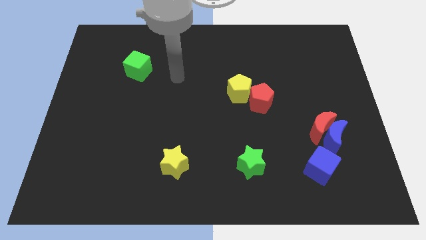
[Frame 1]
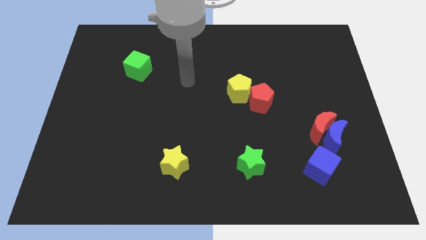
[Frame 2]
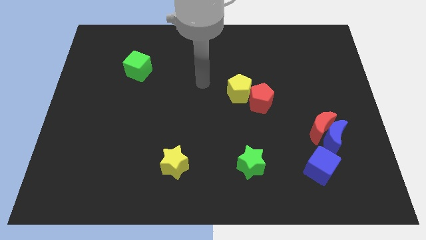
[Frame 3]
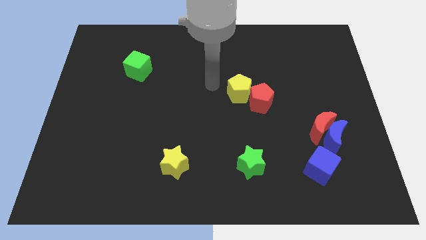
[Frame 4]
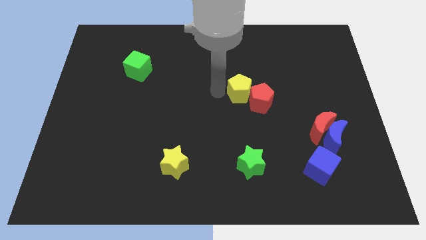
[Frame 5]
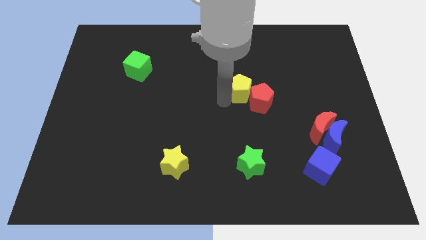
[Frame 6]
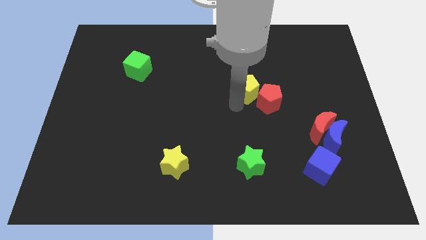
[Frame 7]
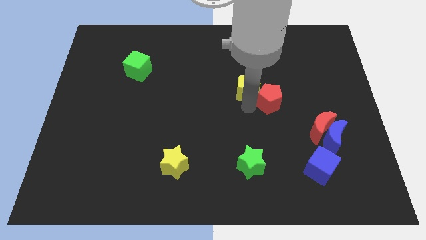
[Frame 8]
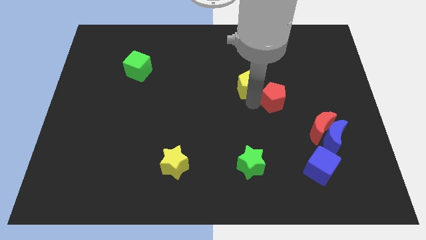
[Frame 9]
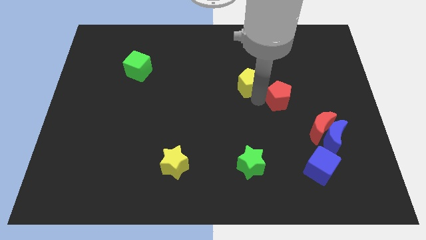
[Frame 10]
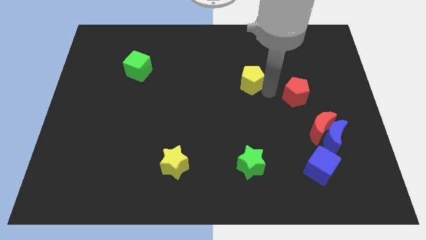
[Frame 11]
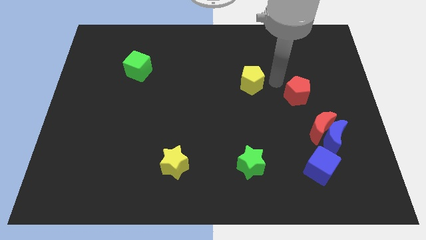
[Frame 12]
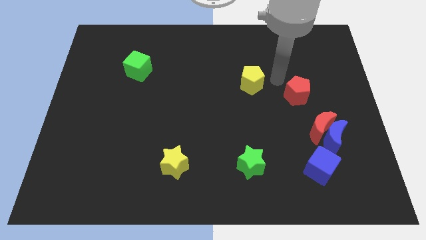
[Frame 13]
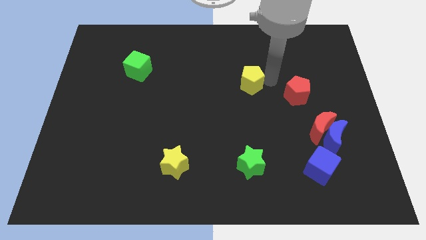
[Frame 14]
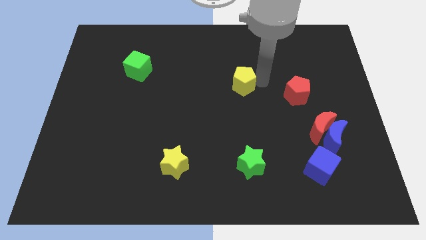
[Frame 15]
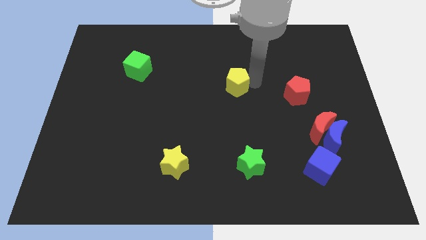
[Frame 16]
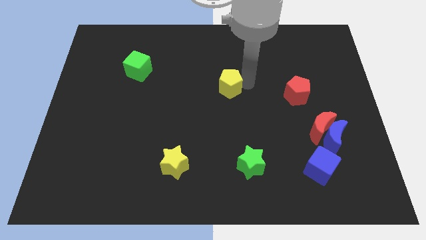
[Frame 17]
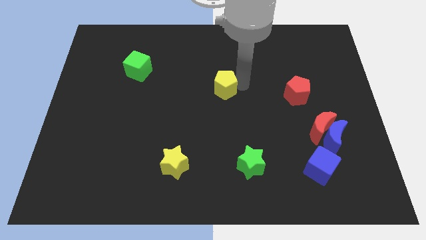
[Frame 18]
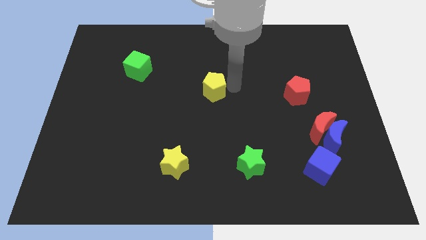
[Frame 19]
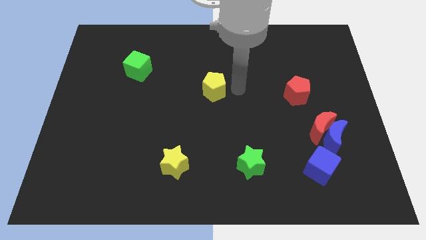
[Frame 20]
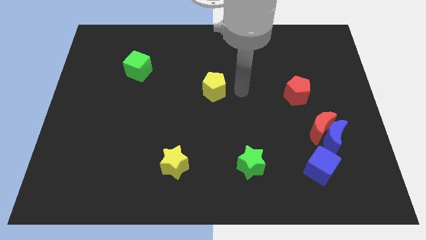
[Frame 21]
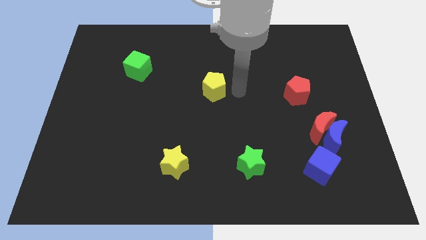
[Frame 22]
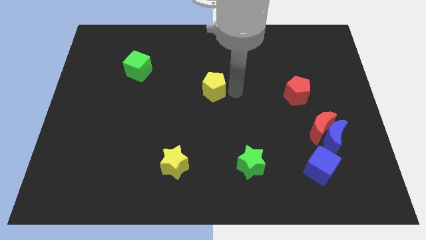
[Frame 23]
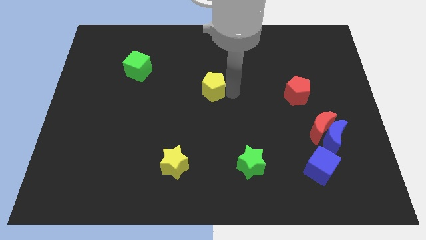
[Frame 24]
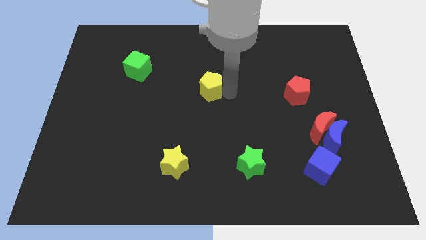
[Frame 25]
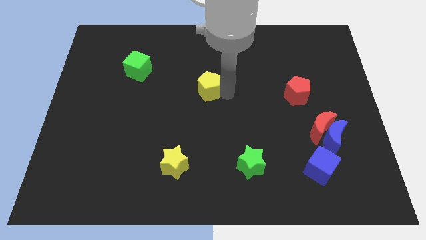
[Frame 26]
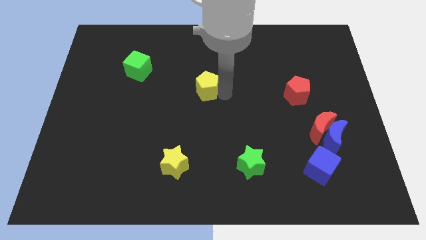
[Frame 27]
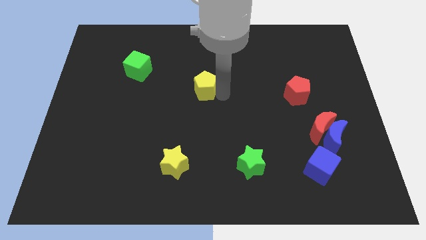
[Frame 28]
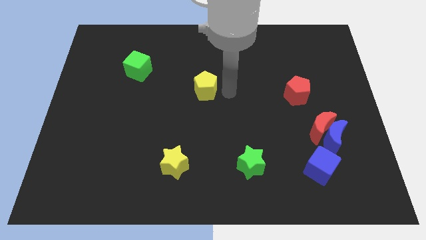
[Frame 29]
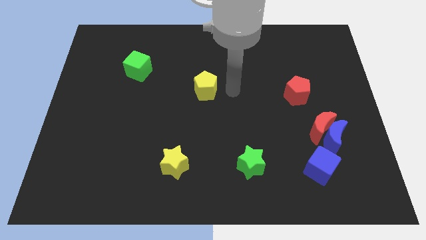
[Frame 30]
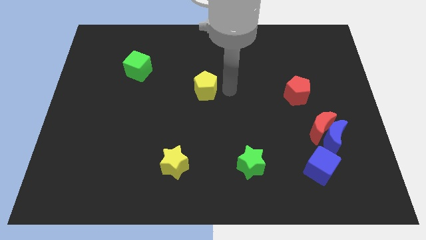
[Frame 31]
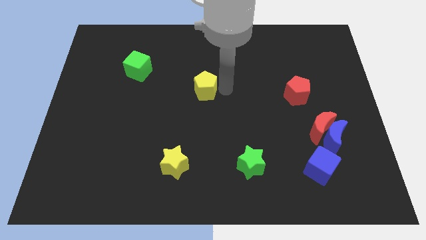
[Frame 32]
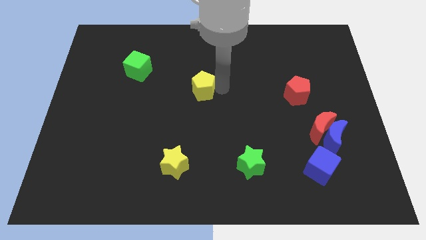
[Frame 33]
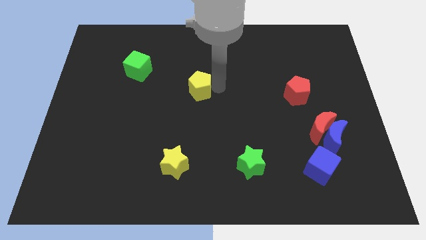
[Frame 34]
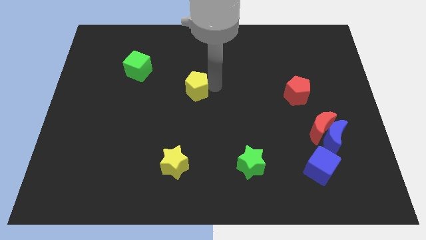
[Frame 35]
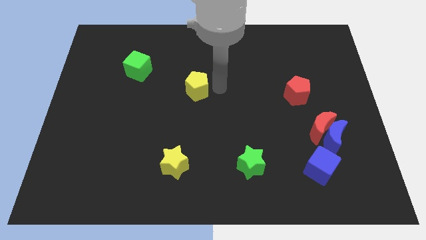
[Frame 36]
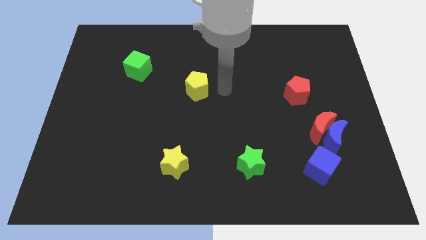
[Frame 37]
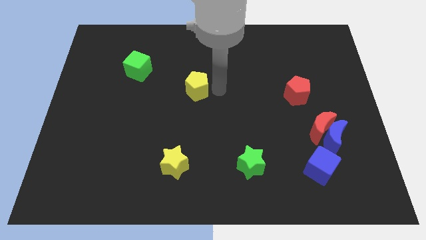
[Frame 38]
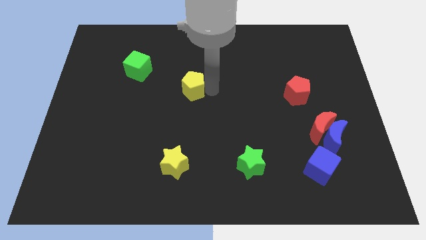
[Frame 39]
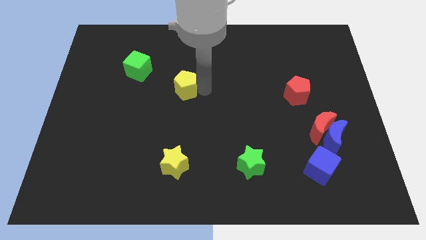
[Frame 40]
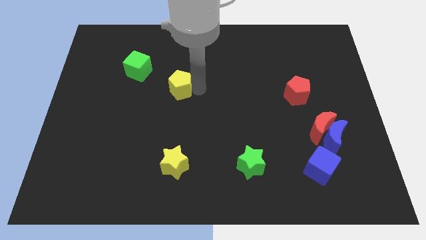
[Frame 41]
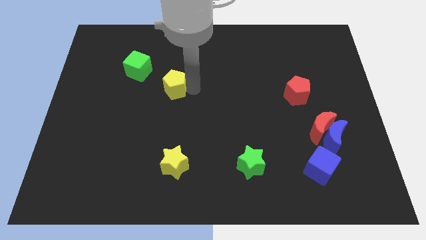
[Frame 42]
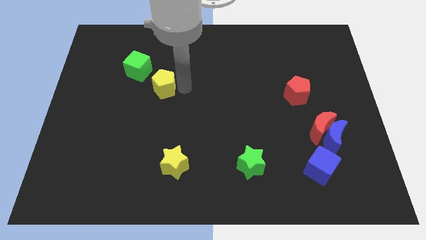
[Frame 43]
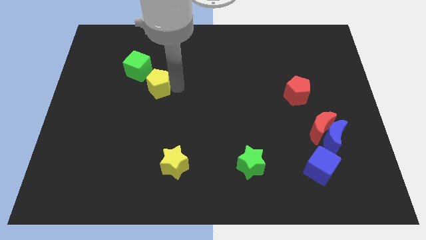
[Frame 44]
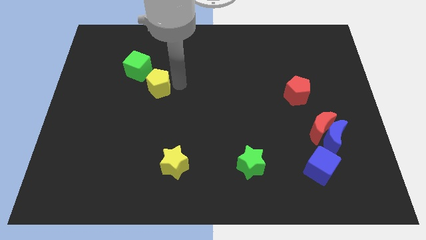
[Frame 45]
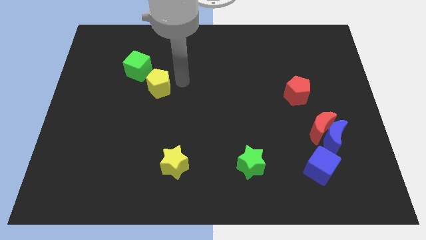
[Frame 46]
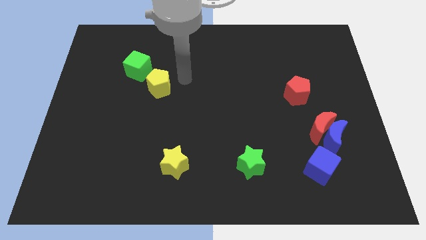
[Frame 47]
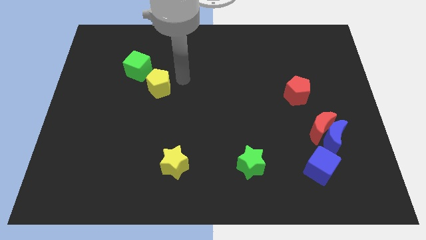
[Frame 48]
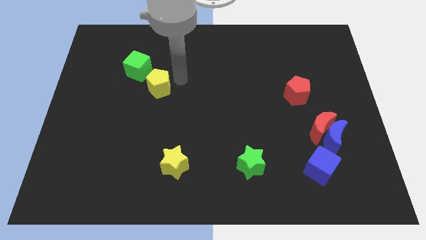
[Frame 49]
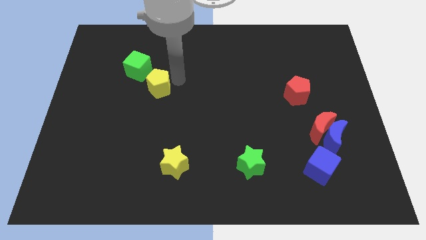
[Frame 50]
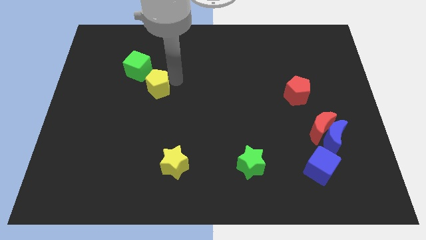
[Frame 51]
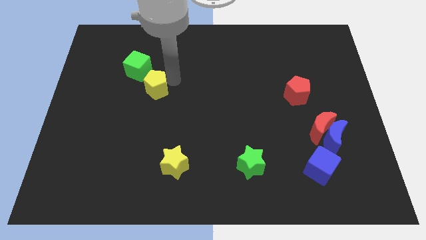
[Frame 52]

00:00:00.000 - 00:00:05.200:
slide the yellow pentagon to the left

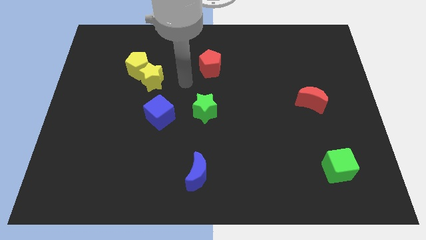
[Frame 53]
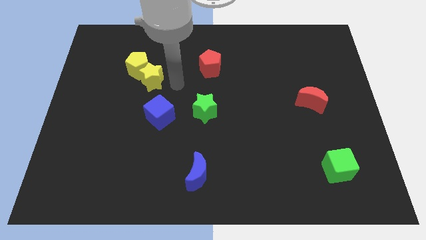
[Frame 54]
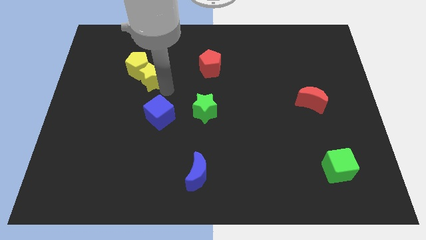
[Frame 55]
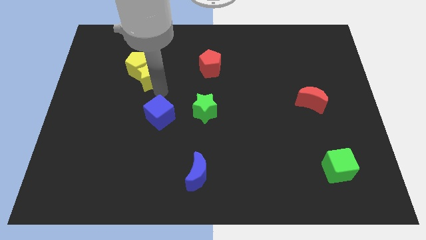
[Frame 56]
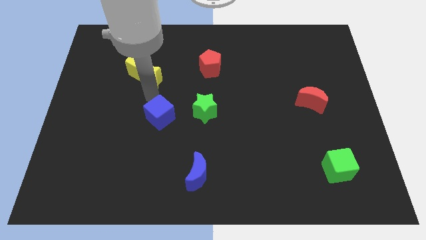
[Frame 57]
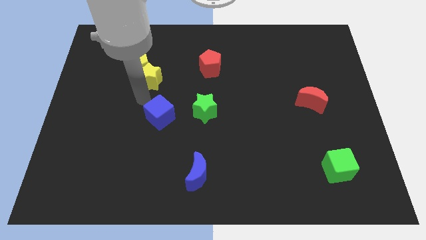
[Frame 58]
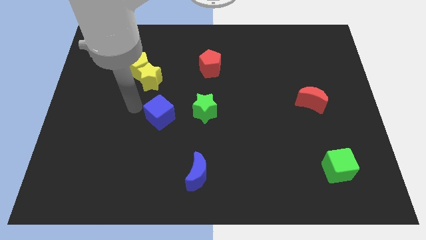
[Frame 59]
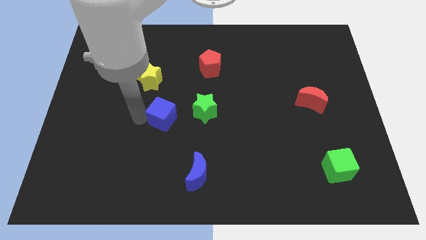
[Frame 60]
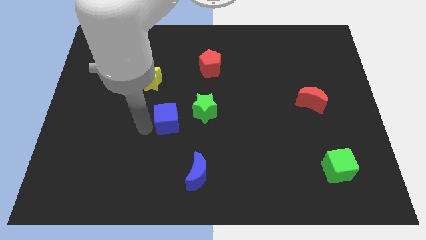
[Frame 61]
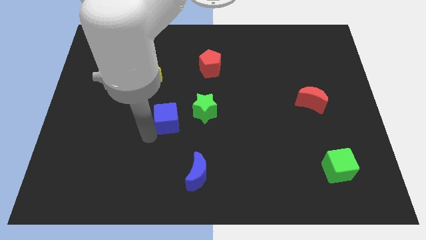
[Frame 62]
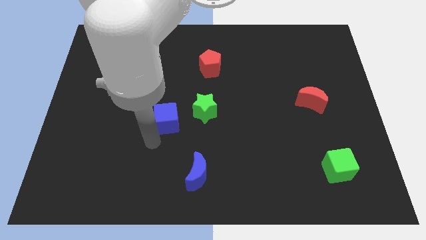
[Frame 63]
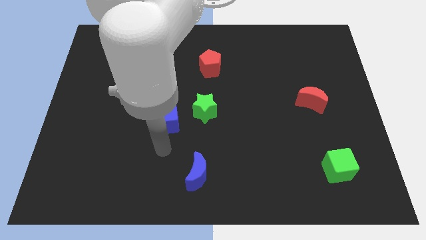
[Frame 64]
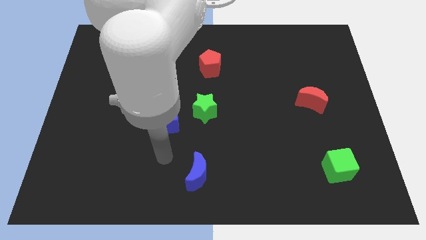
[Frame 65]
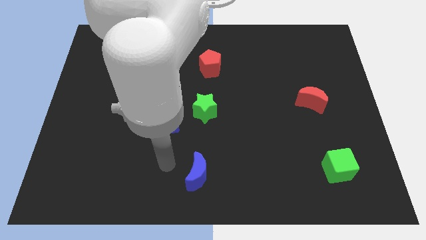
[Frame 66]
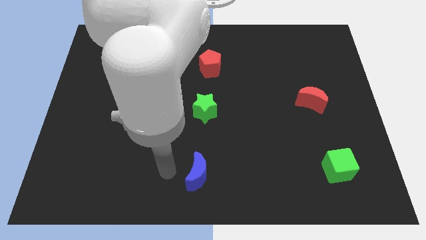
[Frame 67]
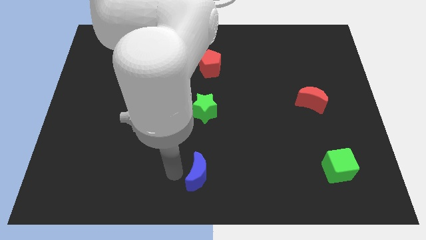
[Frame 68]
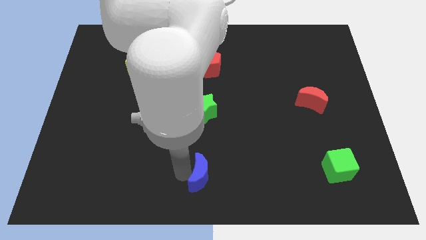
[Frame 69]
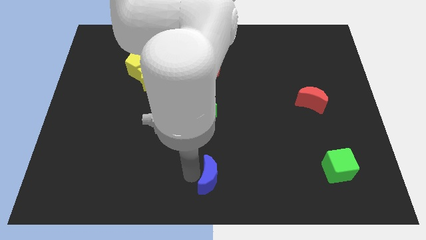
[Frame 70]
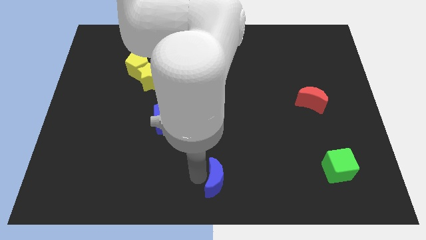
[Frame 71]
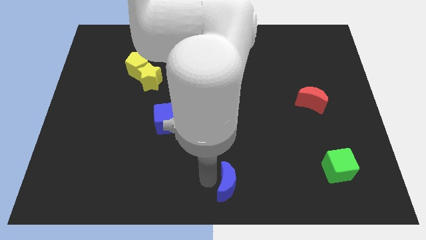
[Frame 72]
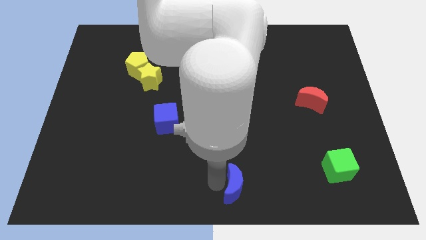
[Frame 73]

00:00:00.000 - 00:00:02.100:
slightly slide the blue moon right

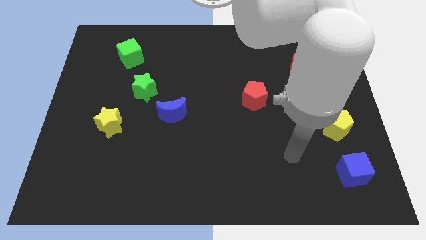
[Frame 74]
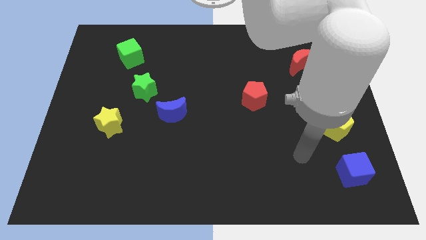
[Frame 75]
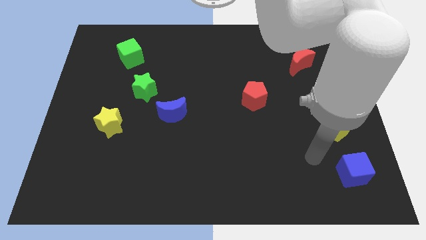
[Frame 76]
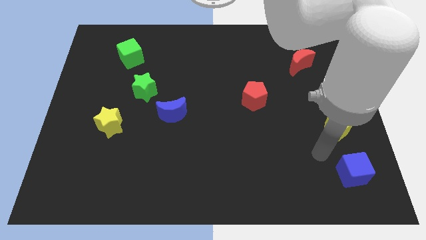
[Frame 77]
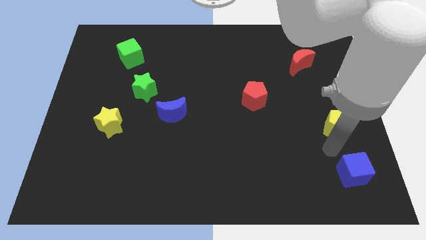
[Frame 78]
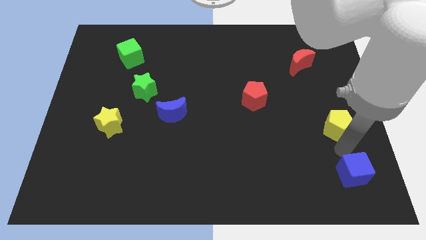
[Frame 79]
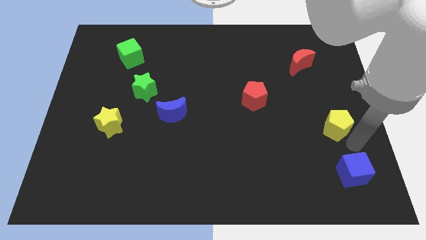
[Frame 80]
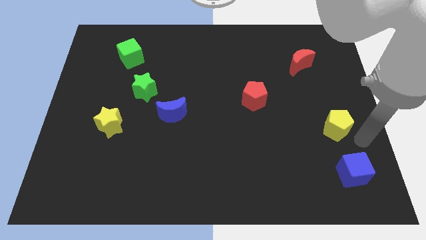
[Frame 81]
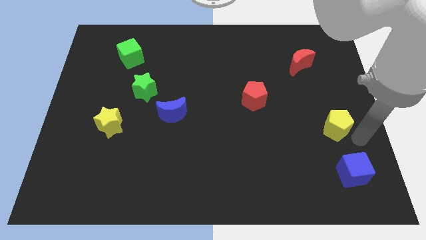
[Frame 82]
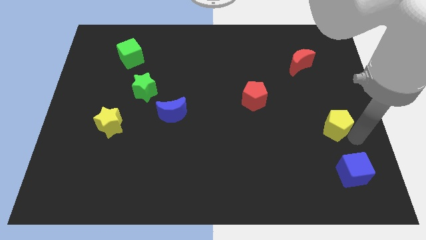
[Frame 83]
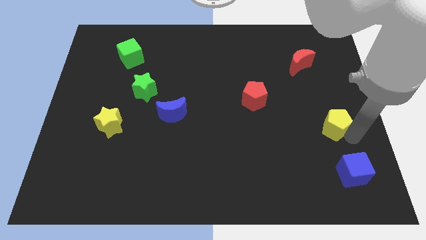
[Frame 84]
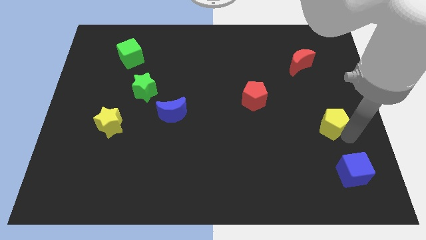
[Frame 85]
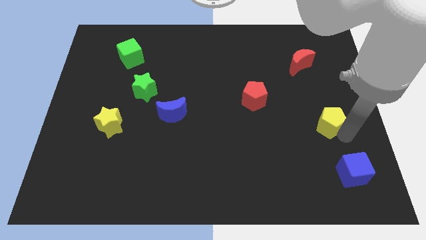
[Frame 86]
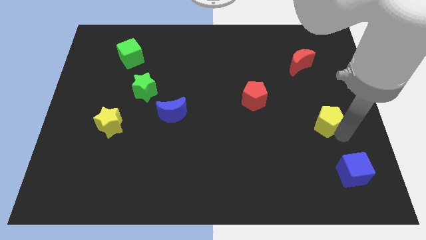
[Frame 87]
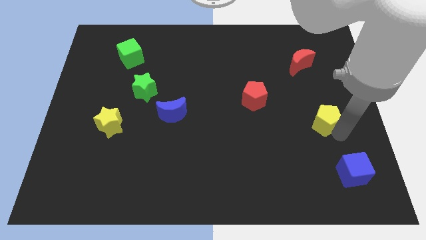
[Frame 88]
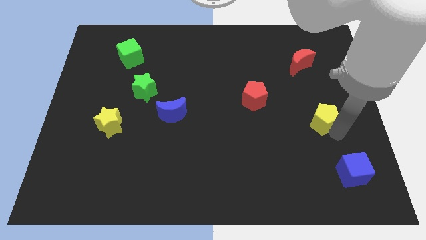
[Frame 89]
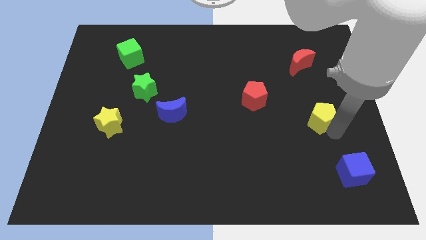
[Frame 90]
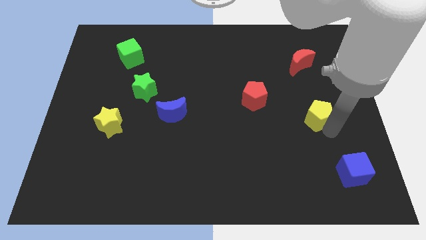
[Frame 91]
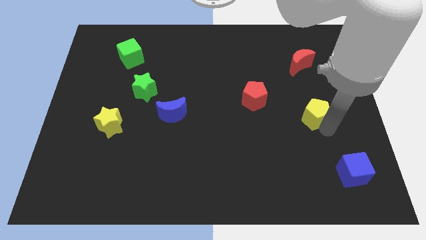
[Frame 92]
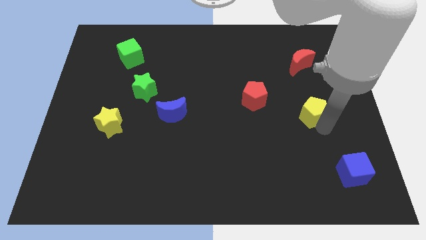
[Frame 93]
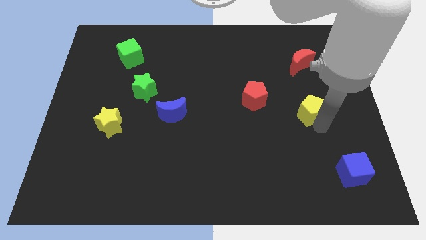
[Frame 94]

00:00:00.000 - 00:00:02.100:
slightly move the yellow pentagon up and then to the left
